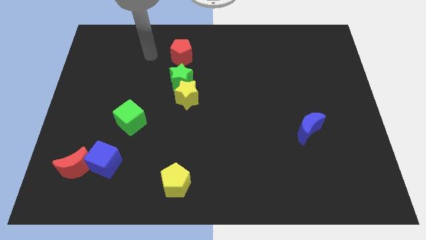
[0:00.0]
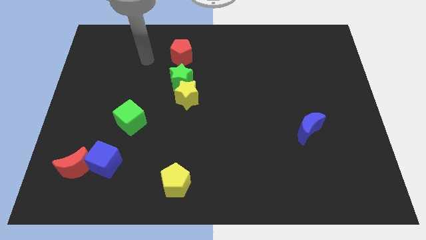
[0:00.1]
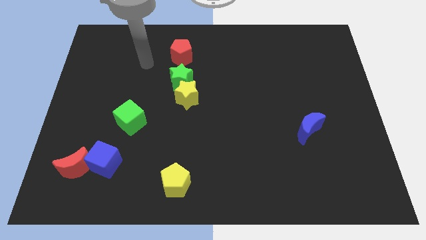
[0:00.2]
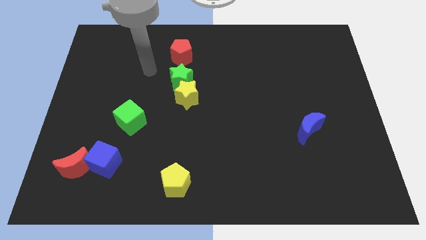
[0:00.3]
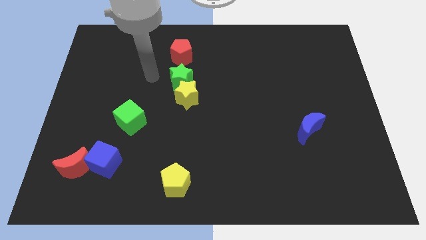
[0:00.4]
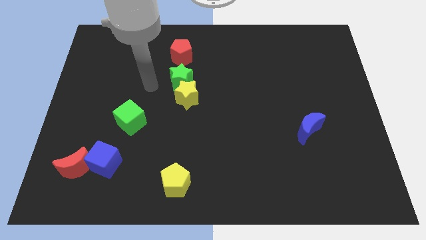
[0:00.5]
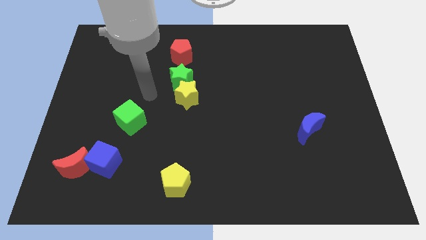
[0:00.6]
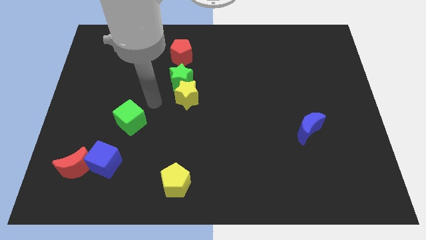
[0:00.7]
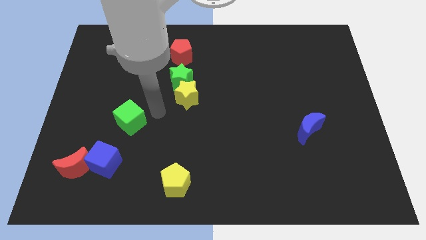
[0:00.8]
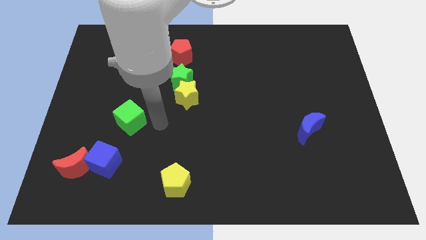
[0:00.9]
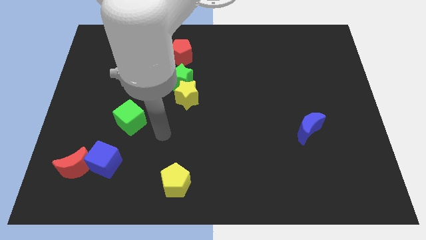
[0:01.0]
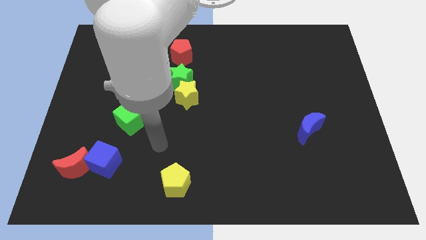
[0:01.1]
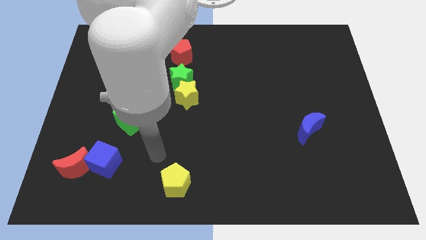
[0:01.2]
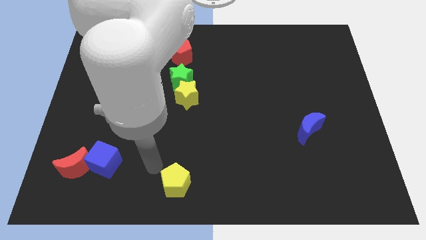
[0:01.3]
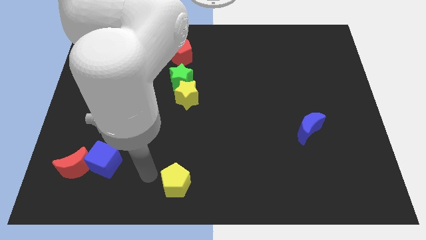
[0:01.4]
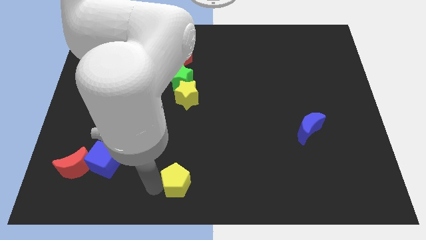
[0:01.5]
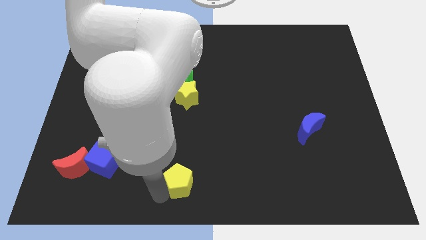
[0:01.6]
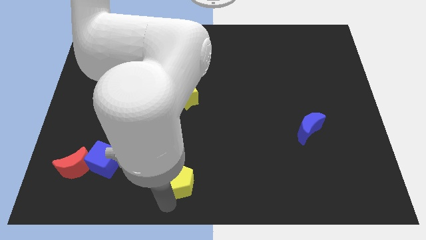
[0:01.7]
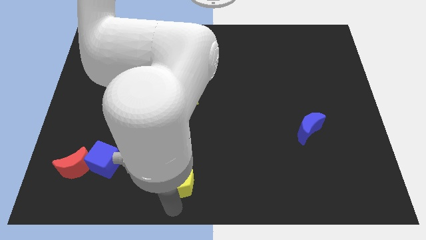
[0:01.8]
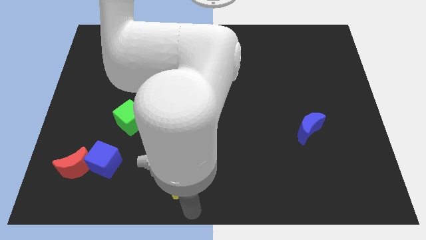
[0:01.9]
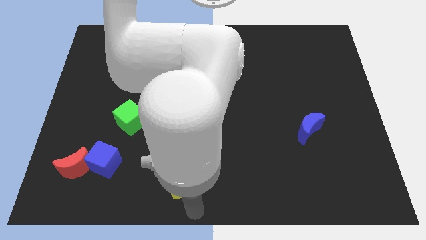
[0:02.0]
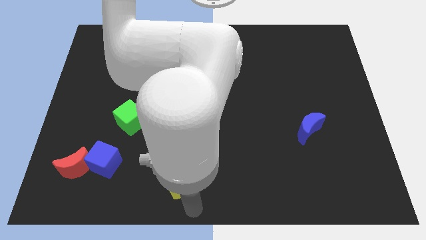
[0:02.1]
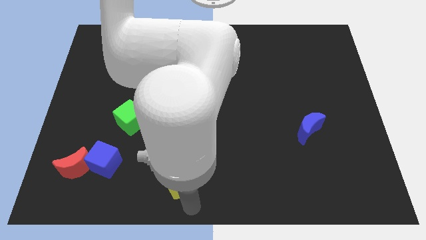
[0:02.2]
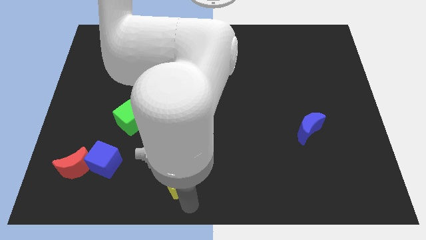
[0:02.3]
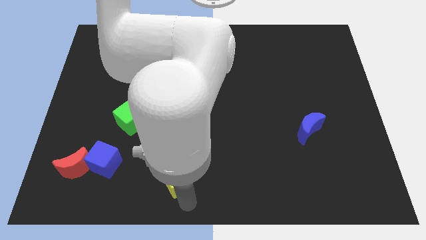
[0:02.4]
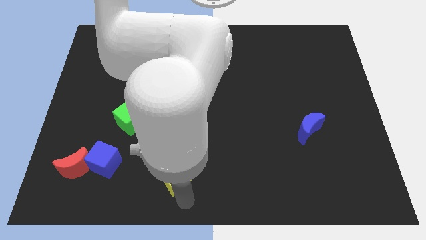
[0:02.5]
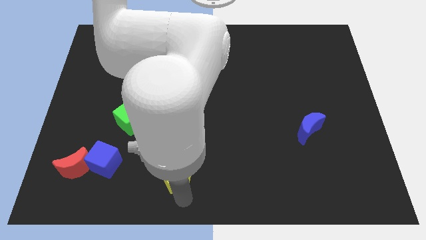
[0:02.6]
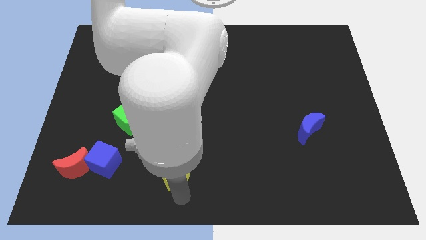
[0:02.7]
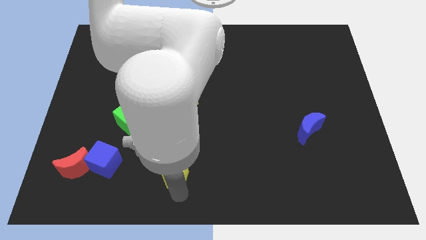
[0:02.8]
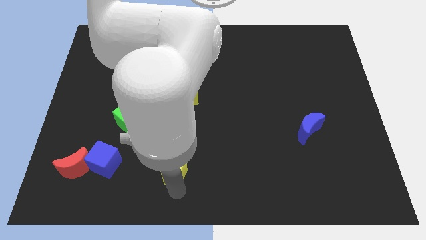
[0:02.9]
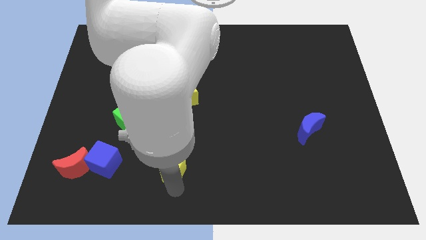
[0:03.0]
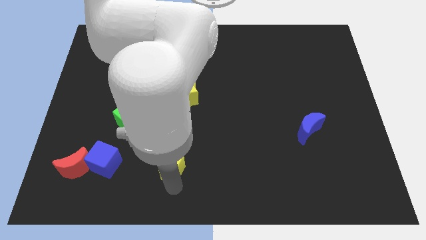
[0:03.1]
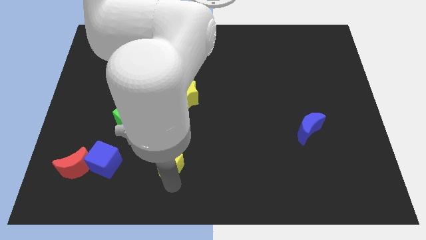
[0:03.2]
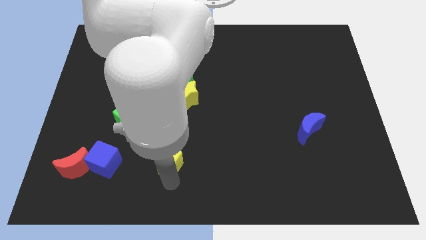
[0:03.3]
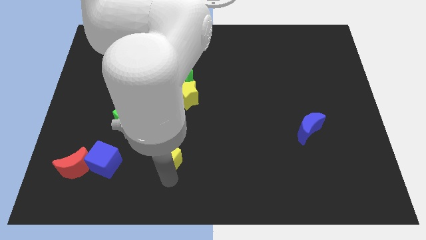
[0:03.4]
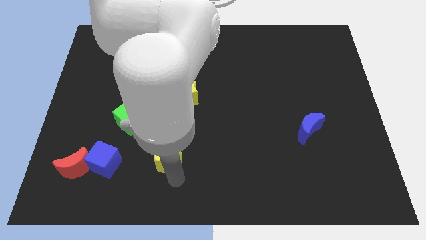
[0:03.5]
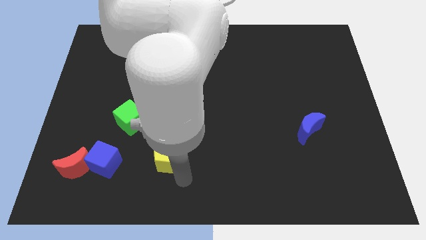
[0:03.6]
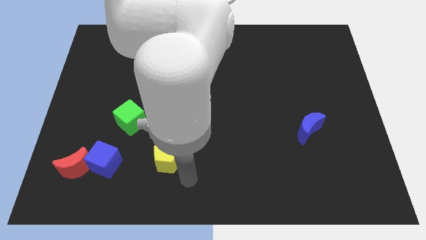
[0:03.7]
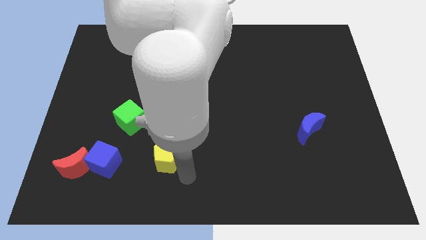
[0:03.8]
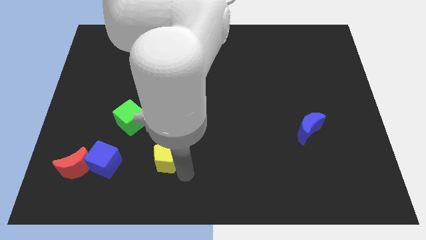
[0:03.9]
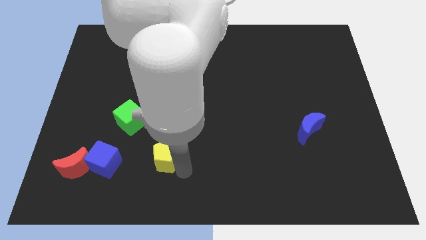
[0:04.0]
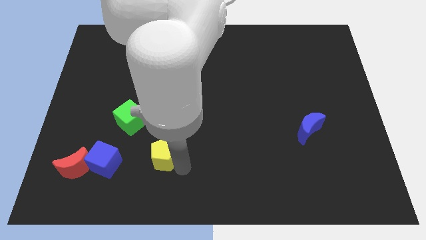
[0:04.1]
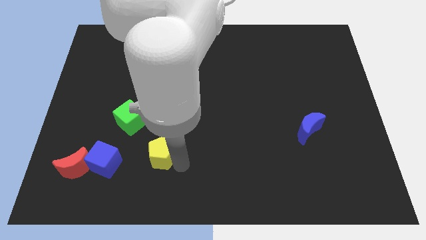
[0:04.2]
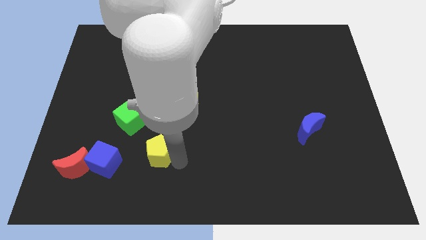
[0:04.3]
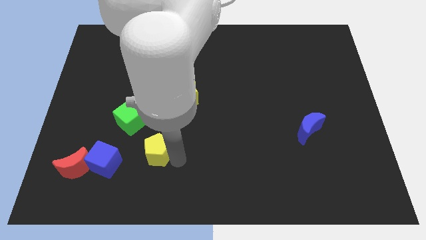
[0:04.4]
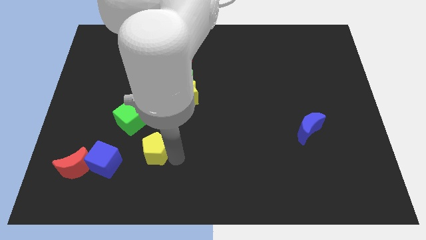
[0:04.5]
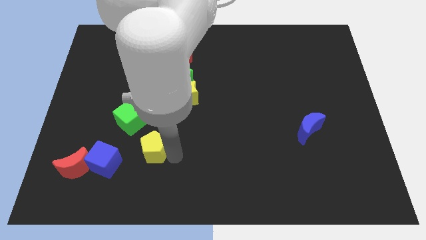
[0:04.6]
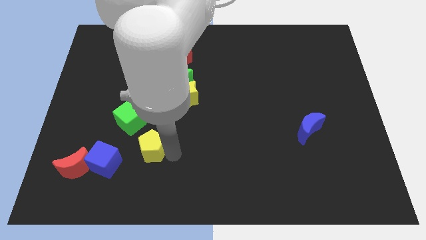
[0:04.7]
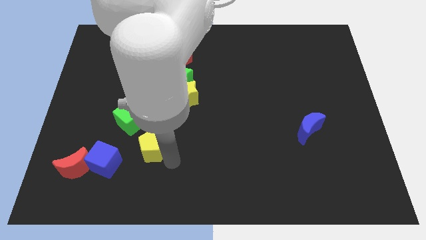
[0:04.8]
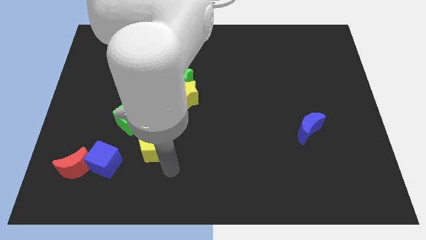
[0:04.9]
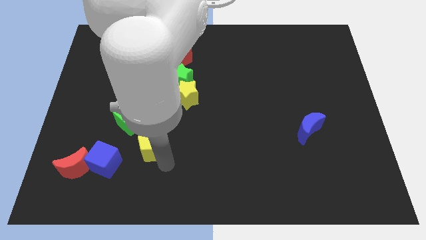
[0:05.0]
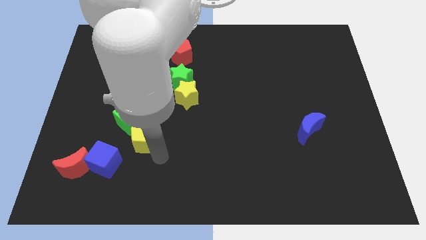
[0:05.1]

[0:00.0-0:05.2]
move the yellow pentagon towards the green cube

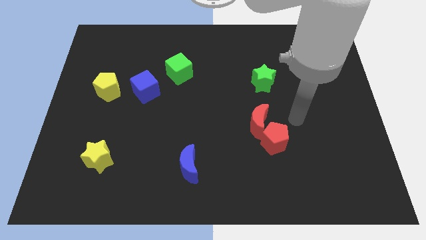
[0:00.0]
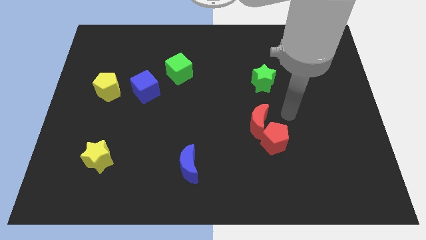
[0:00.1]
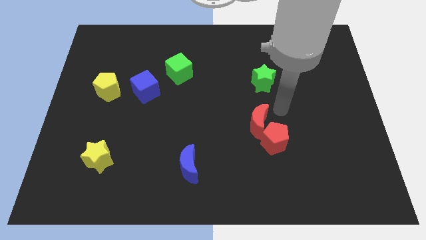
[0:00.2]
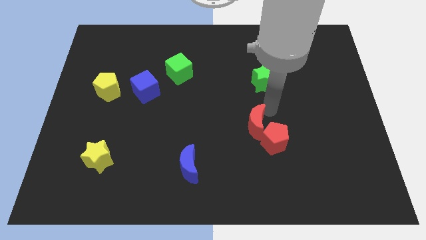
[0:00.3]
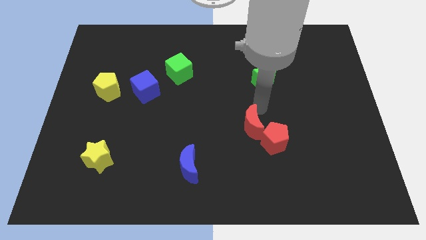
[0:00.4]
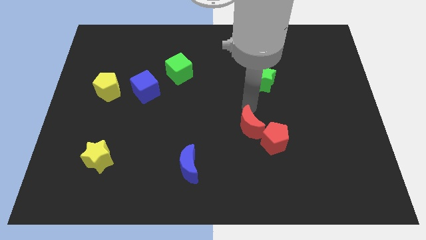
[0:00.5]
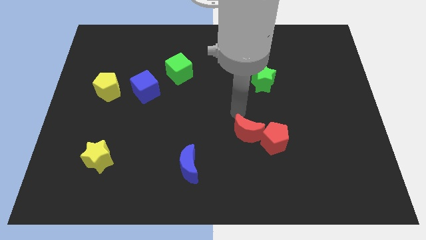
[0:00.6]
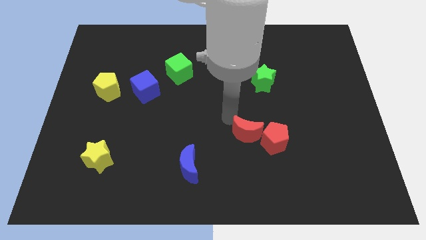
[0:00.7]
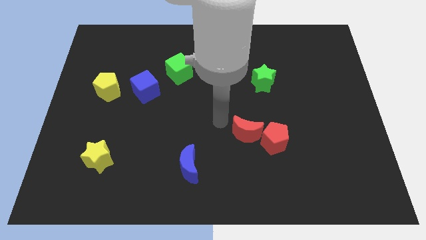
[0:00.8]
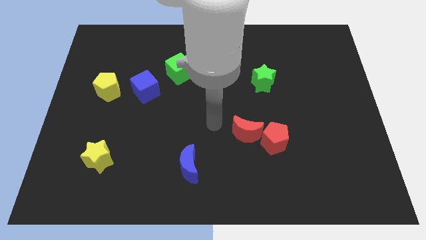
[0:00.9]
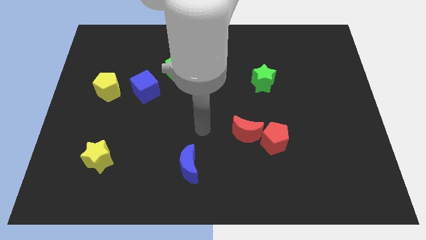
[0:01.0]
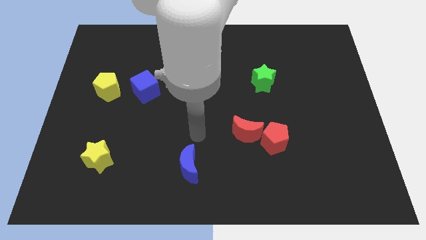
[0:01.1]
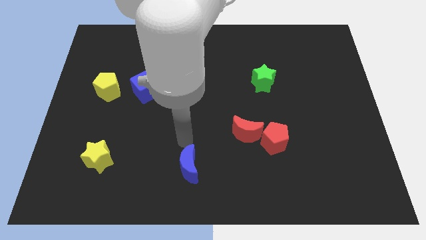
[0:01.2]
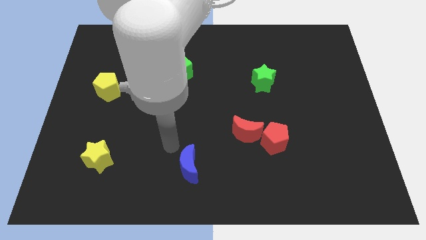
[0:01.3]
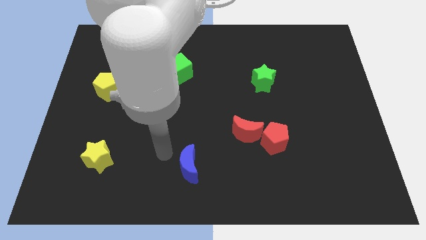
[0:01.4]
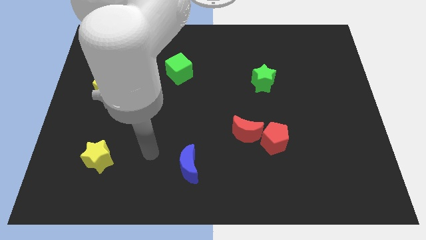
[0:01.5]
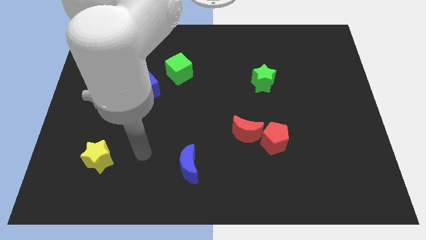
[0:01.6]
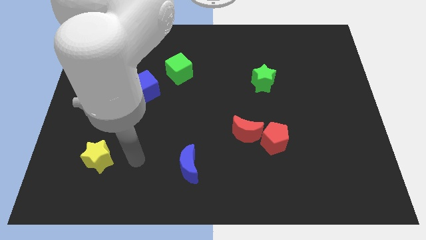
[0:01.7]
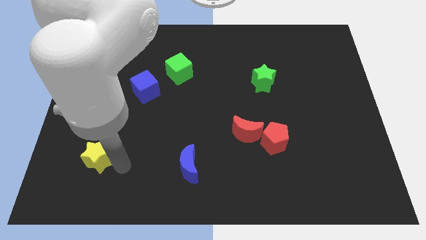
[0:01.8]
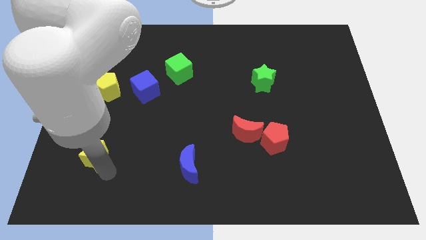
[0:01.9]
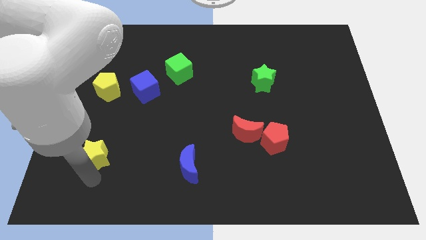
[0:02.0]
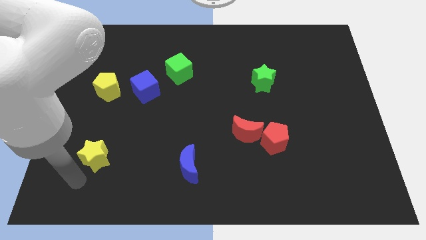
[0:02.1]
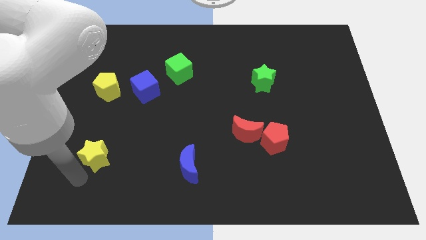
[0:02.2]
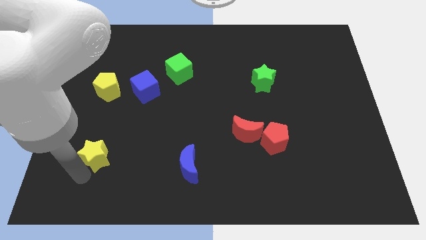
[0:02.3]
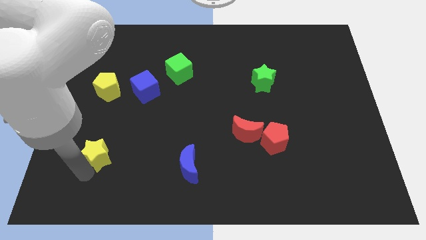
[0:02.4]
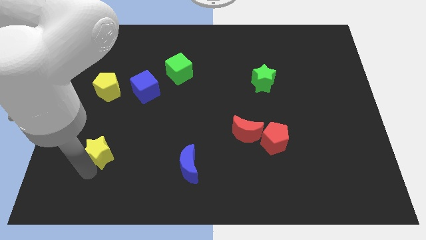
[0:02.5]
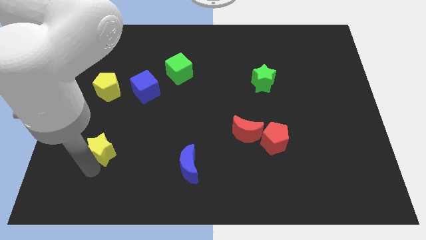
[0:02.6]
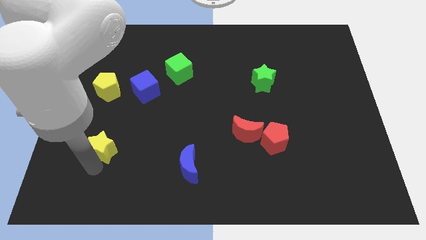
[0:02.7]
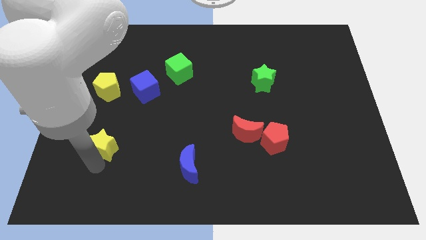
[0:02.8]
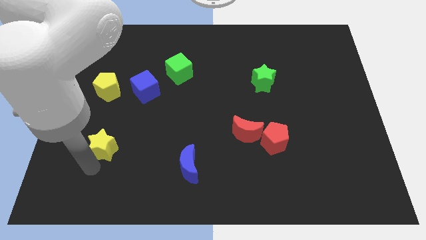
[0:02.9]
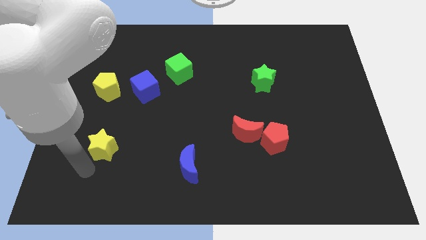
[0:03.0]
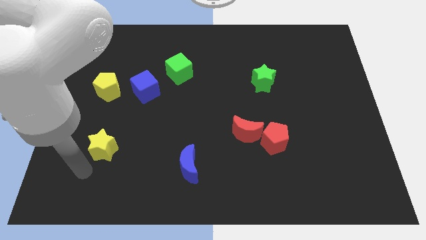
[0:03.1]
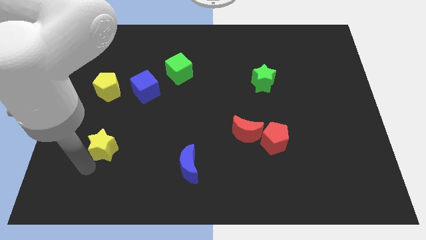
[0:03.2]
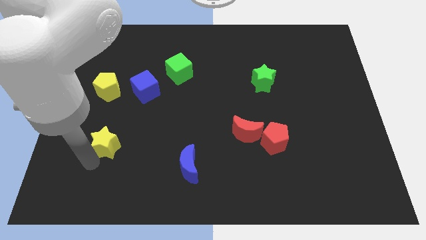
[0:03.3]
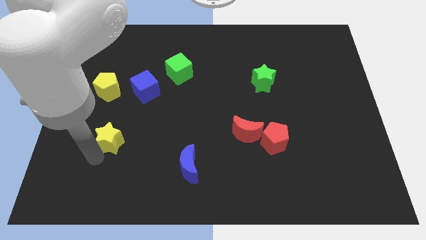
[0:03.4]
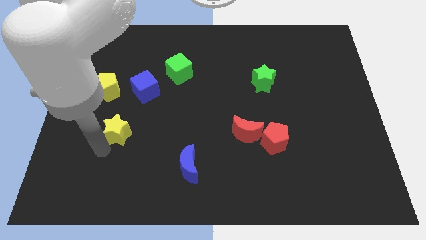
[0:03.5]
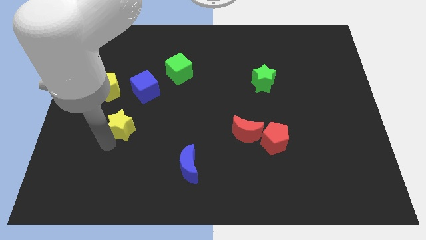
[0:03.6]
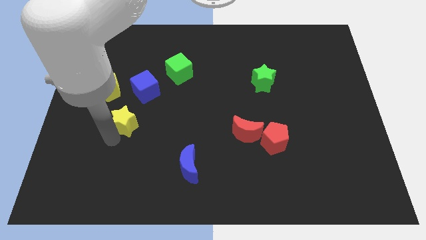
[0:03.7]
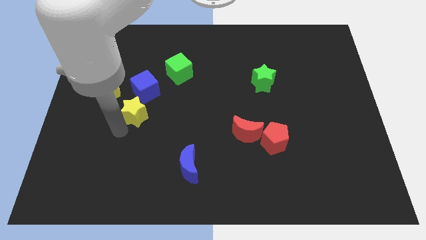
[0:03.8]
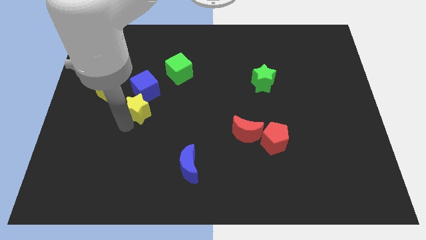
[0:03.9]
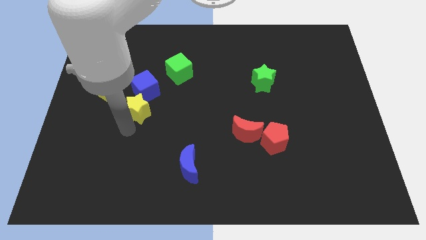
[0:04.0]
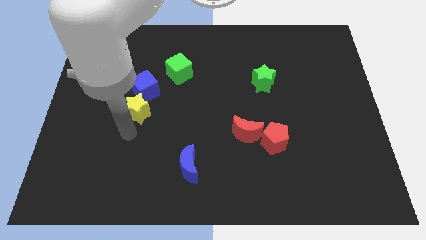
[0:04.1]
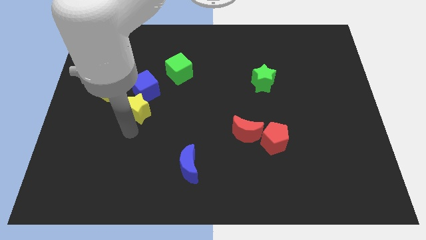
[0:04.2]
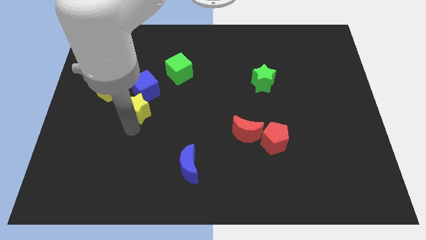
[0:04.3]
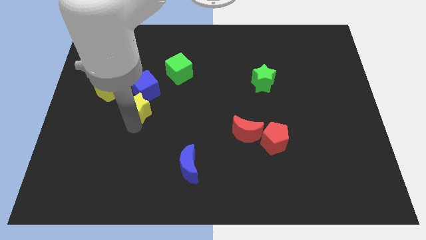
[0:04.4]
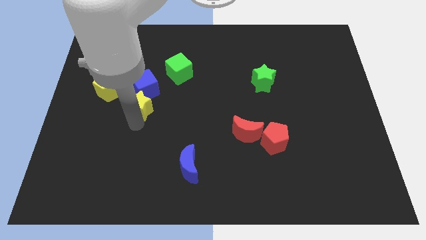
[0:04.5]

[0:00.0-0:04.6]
move the yellow star towards the blue cube
